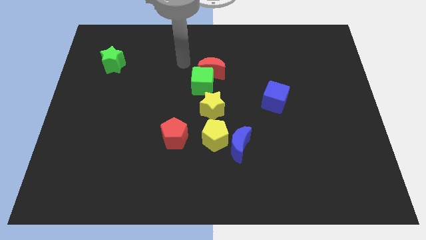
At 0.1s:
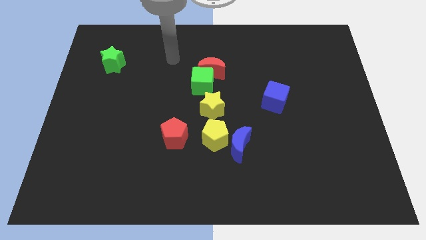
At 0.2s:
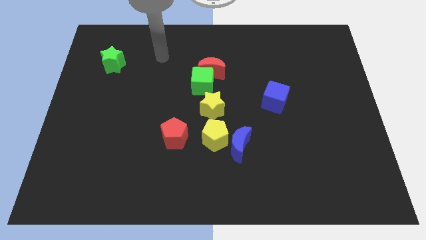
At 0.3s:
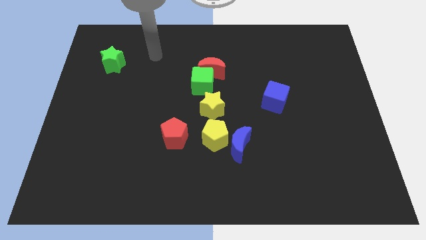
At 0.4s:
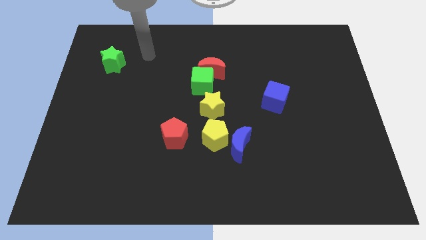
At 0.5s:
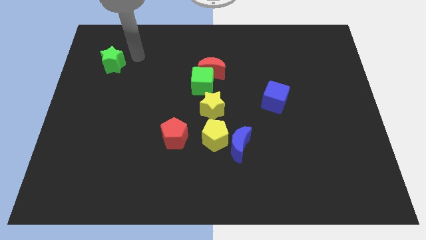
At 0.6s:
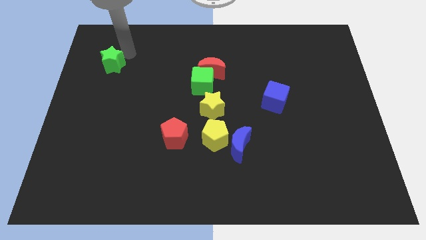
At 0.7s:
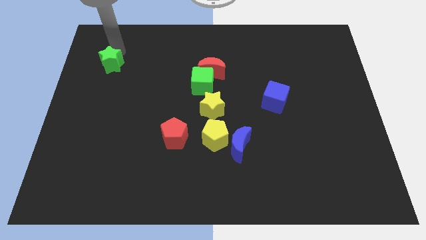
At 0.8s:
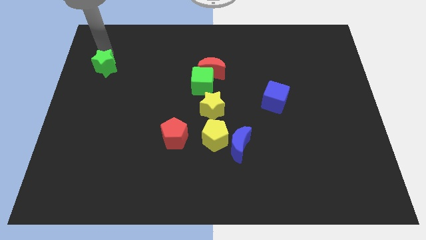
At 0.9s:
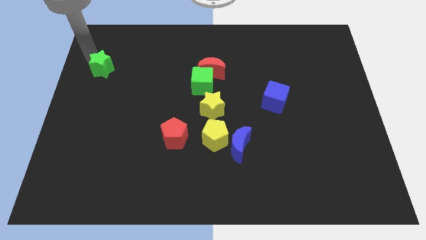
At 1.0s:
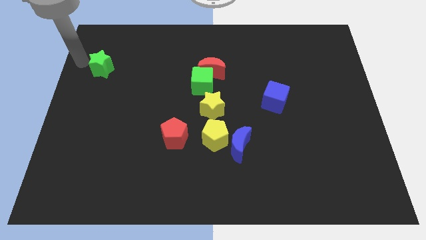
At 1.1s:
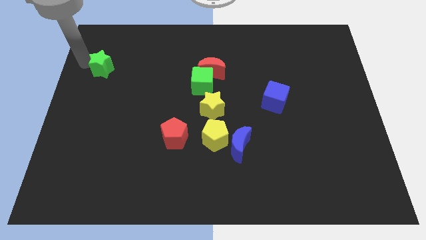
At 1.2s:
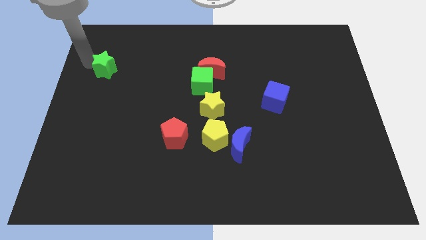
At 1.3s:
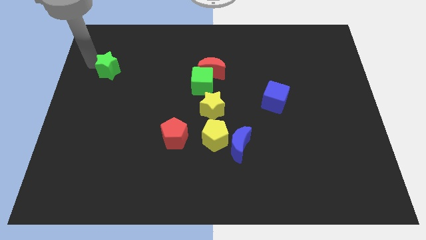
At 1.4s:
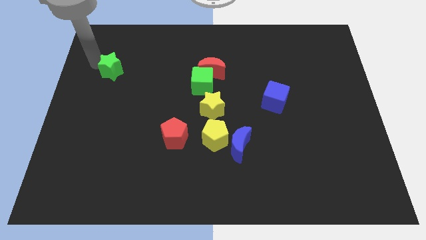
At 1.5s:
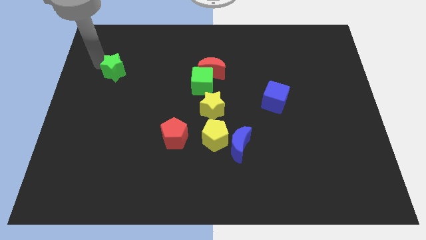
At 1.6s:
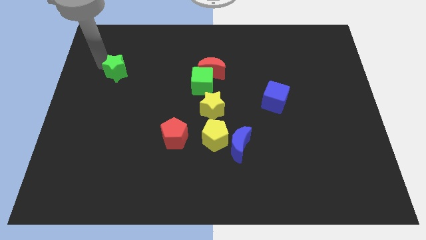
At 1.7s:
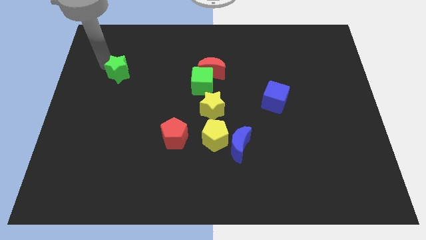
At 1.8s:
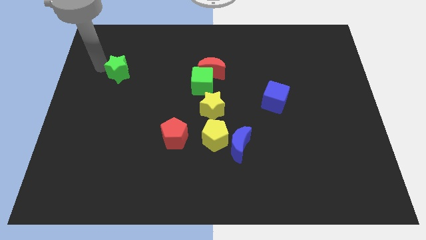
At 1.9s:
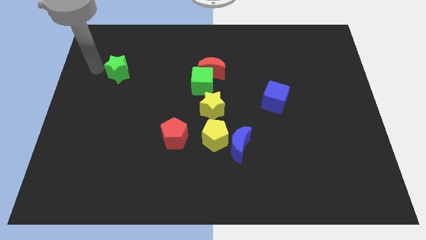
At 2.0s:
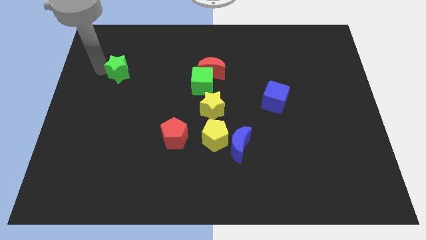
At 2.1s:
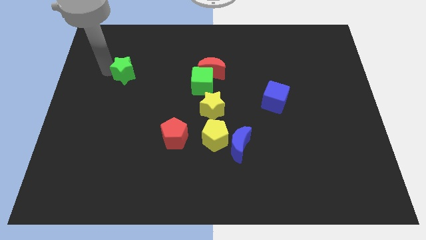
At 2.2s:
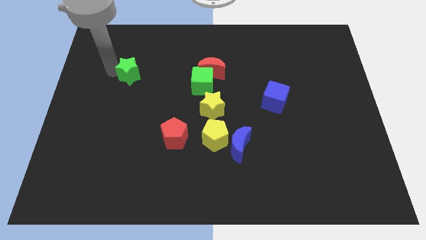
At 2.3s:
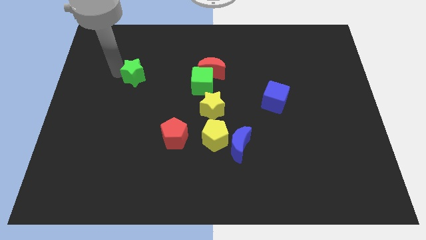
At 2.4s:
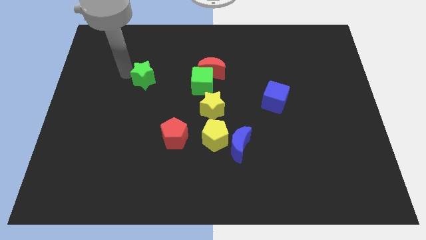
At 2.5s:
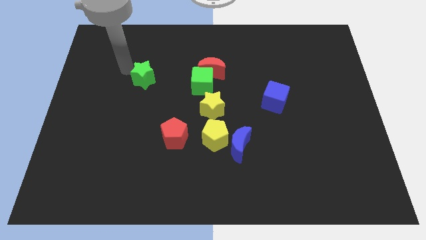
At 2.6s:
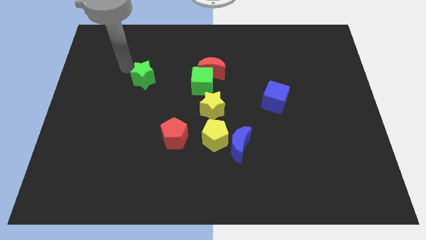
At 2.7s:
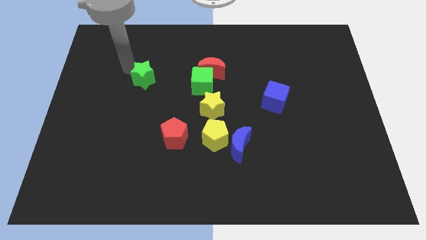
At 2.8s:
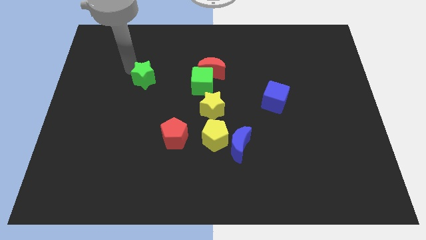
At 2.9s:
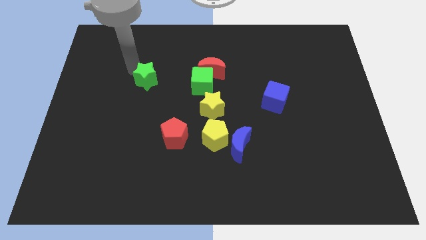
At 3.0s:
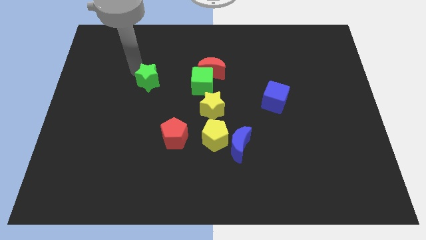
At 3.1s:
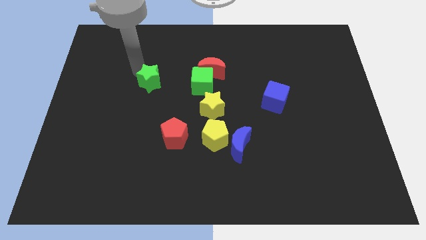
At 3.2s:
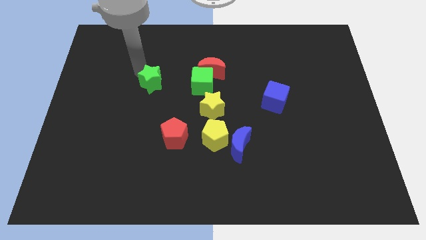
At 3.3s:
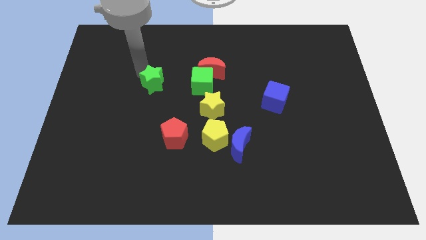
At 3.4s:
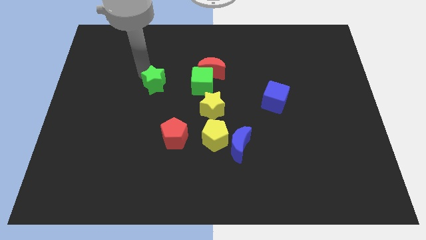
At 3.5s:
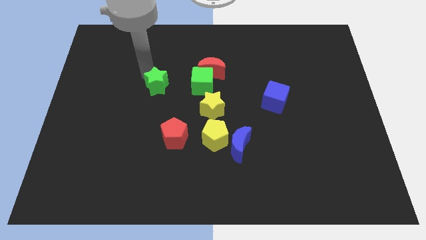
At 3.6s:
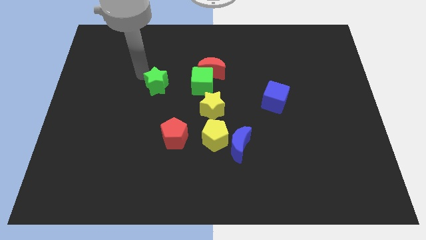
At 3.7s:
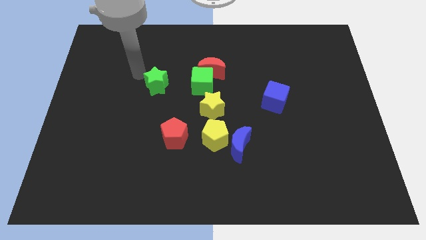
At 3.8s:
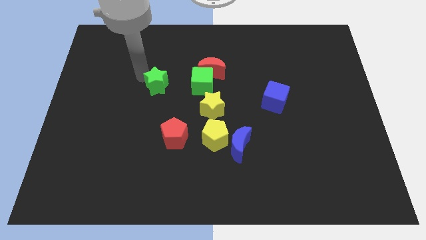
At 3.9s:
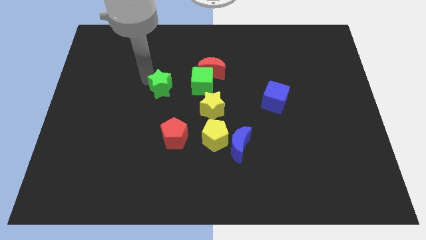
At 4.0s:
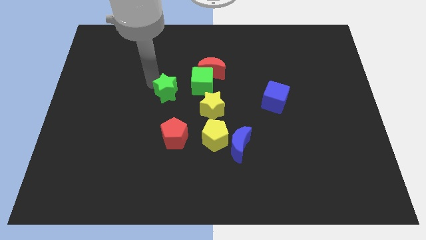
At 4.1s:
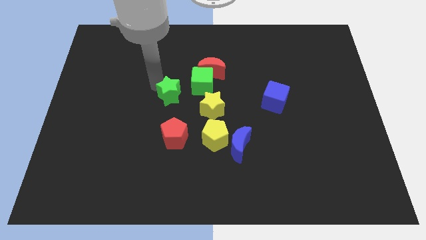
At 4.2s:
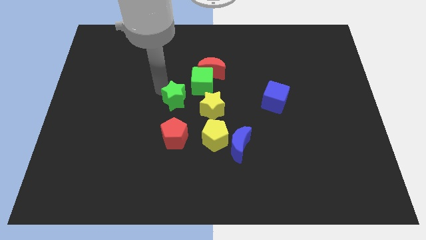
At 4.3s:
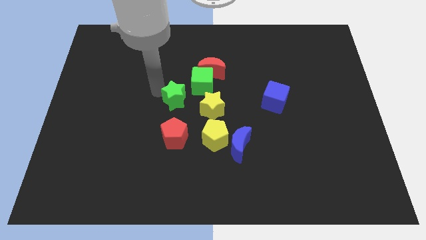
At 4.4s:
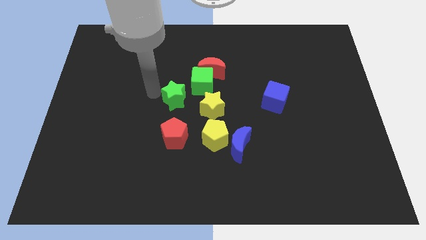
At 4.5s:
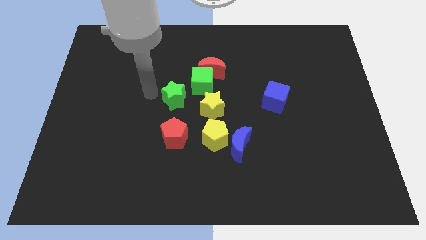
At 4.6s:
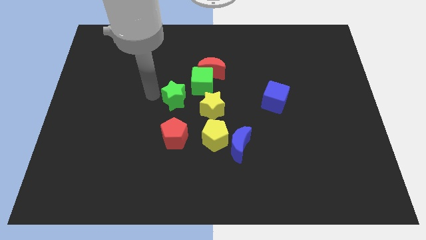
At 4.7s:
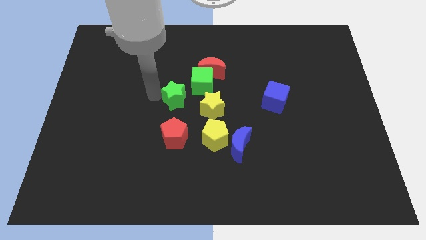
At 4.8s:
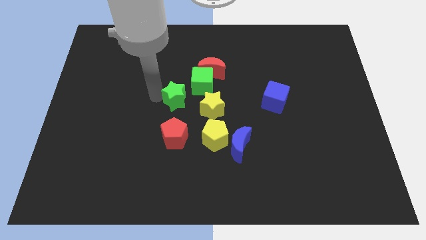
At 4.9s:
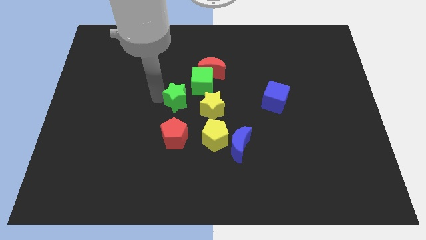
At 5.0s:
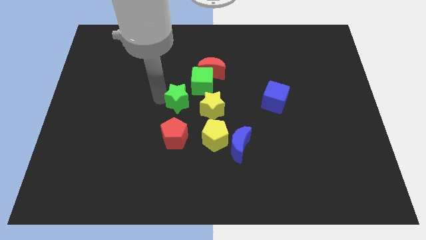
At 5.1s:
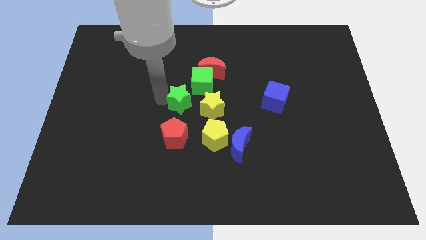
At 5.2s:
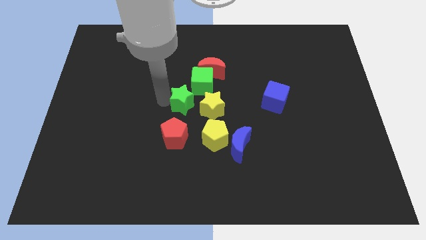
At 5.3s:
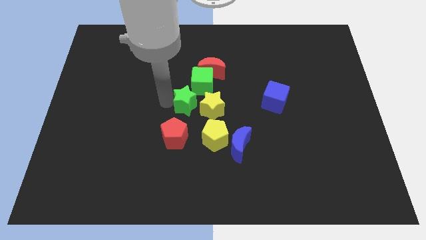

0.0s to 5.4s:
move the green star towards the yellow star

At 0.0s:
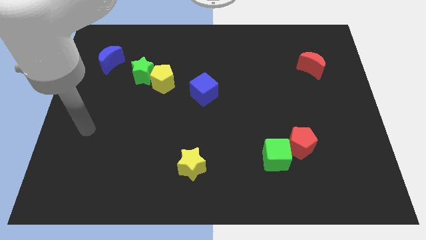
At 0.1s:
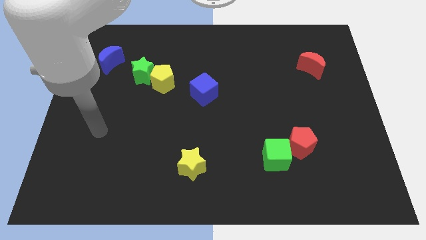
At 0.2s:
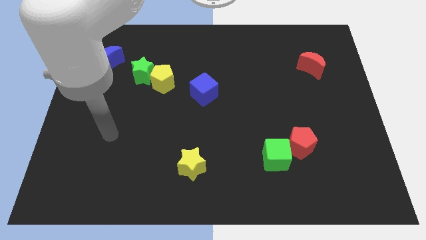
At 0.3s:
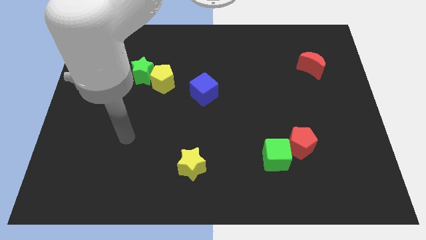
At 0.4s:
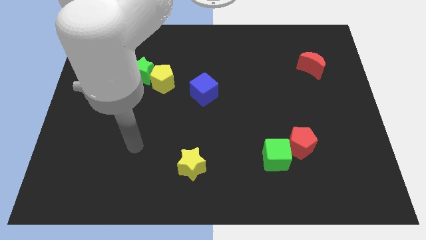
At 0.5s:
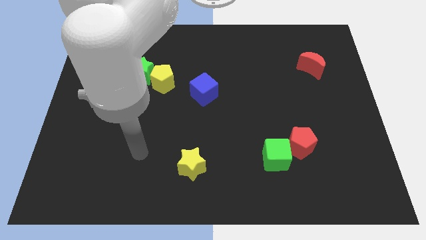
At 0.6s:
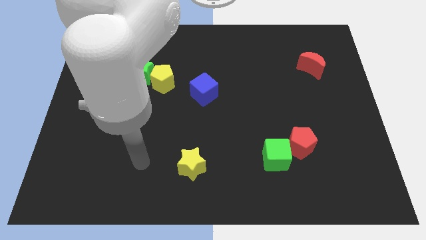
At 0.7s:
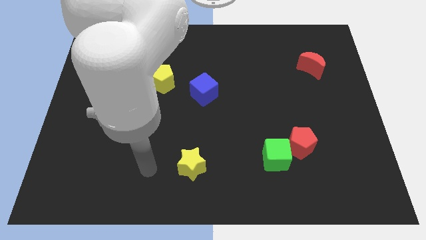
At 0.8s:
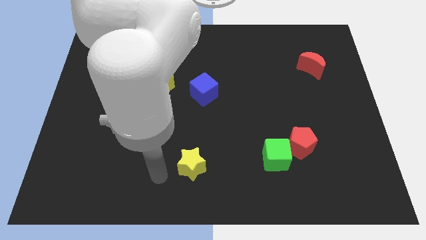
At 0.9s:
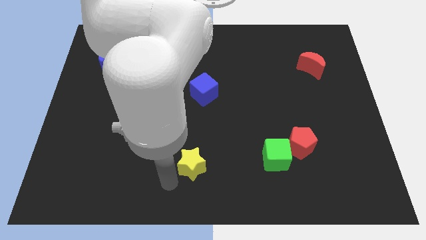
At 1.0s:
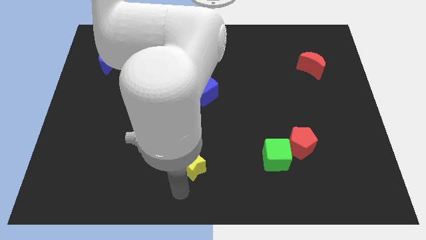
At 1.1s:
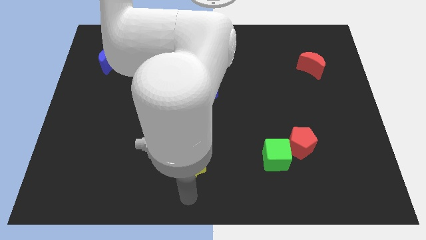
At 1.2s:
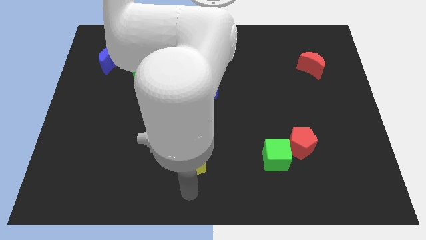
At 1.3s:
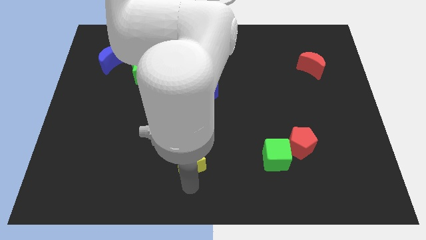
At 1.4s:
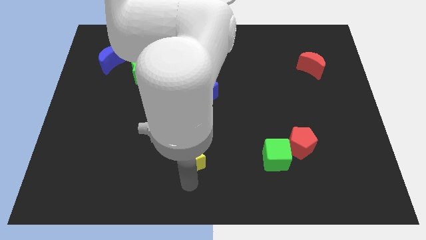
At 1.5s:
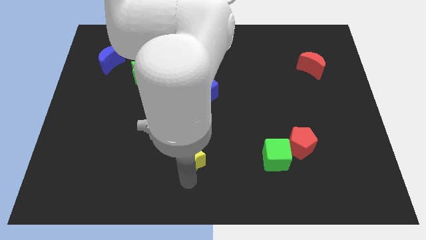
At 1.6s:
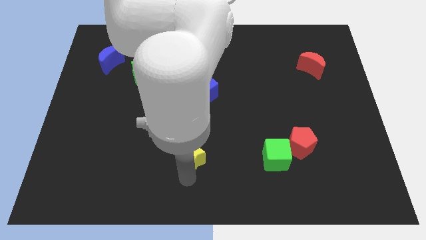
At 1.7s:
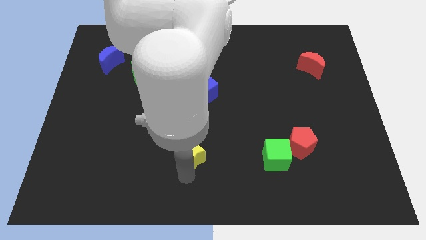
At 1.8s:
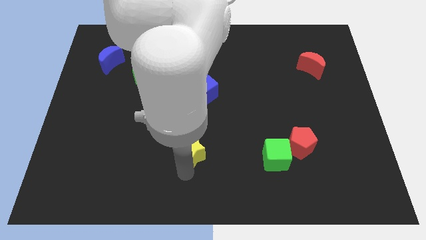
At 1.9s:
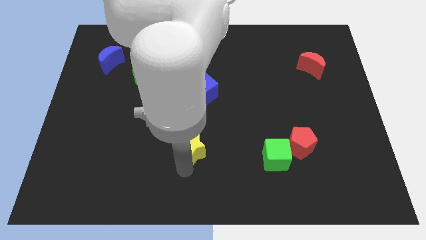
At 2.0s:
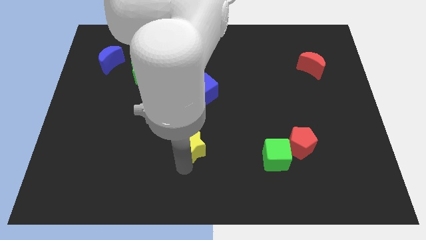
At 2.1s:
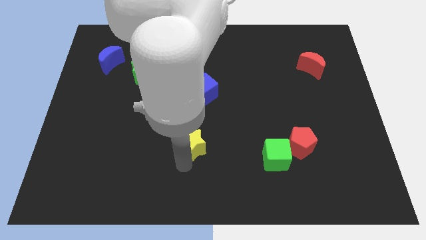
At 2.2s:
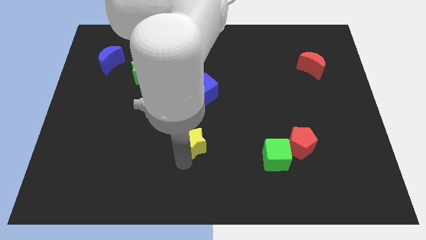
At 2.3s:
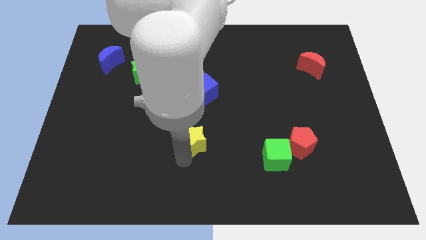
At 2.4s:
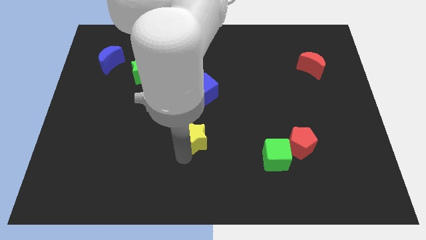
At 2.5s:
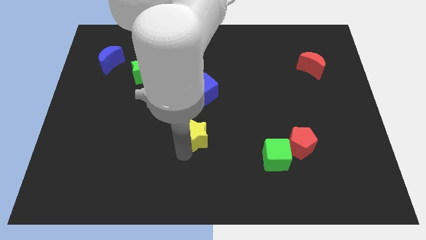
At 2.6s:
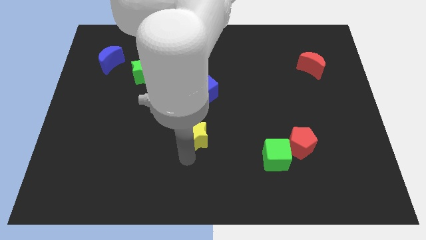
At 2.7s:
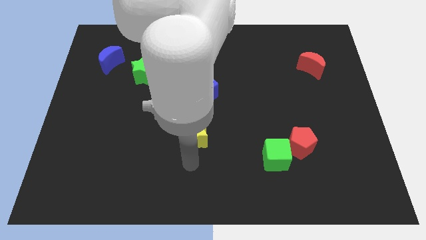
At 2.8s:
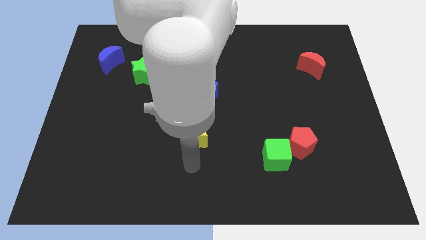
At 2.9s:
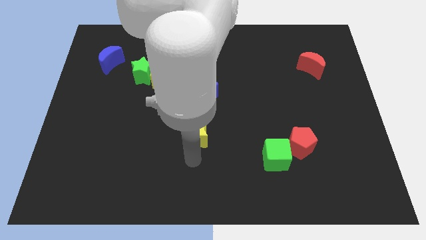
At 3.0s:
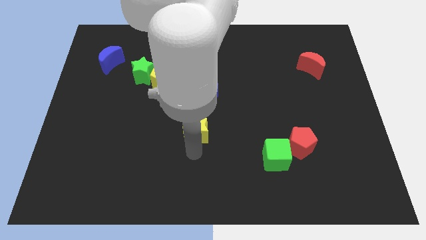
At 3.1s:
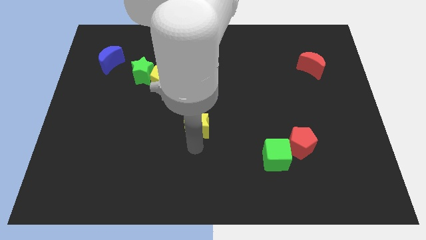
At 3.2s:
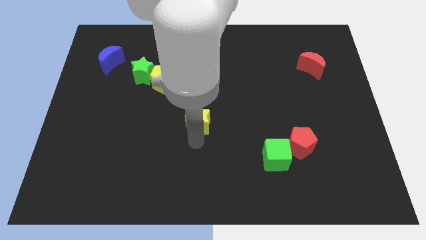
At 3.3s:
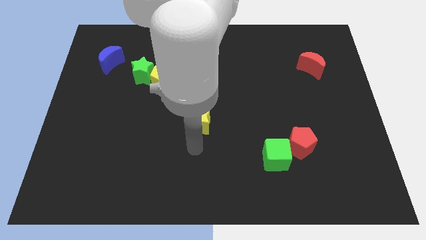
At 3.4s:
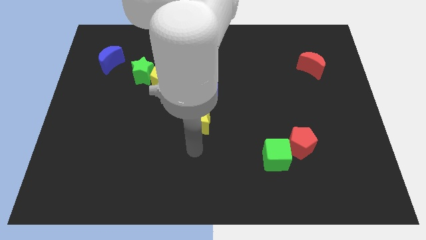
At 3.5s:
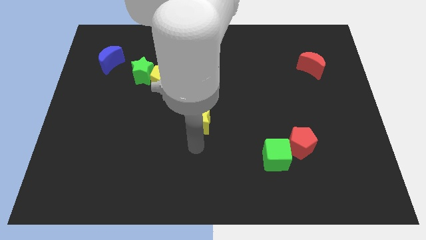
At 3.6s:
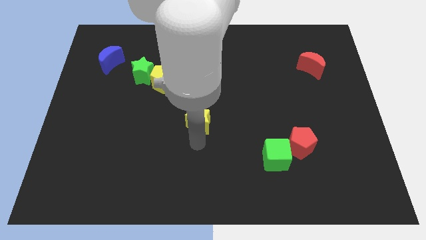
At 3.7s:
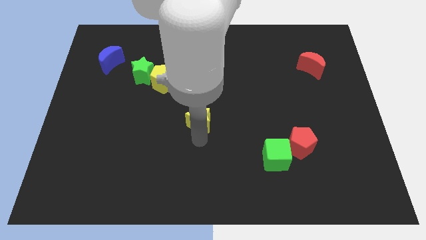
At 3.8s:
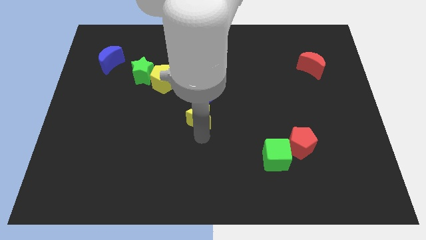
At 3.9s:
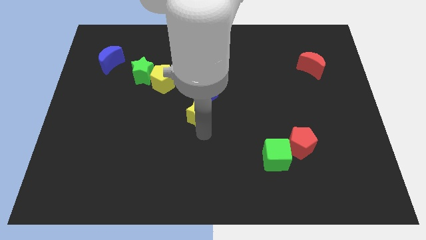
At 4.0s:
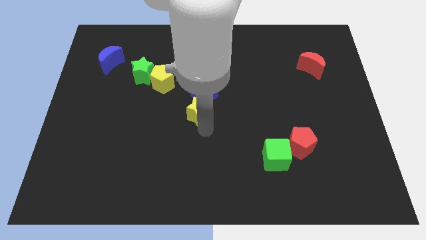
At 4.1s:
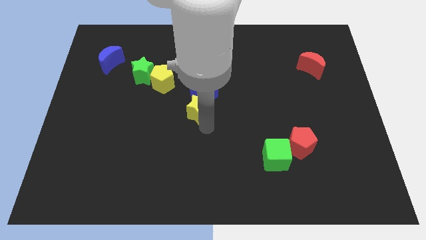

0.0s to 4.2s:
put the yellow star to the blue cube
